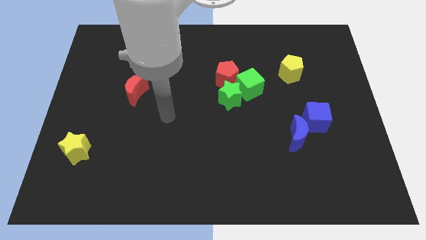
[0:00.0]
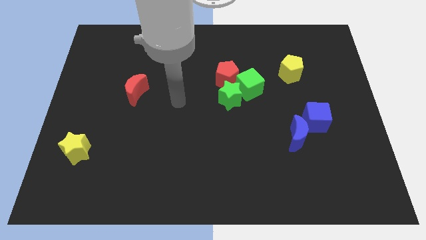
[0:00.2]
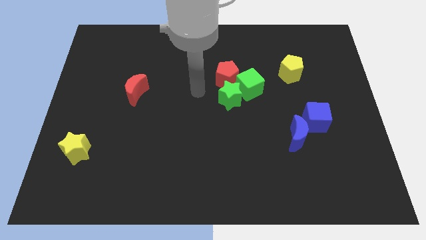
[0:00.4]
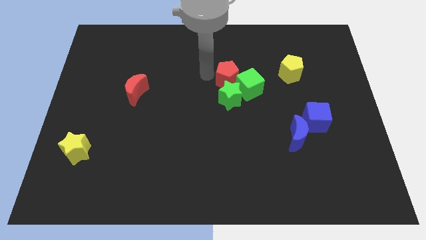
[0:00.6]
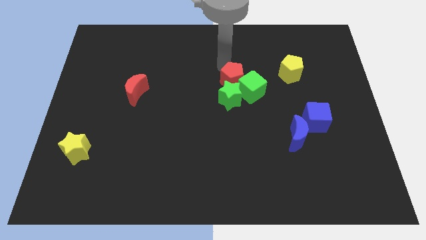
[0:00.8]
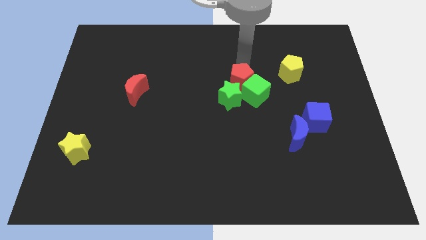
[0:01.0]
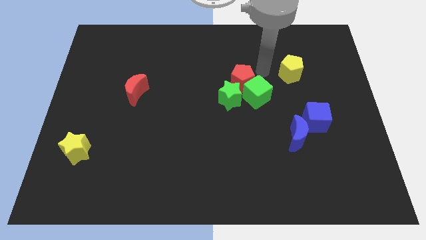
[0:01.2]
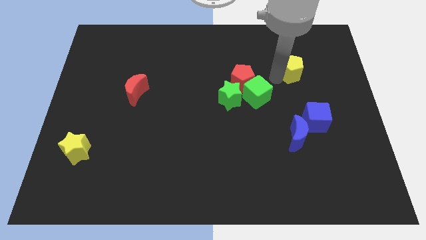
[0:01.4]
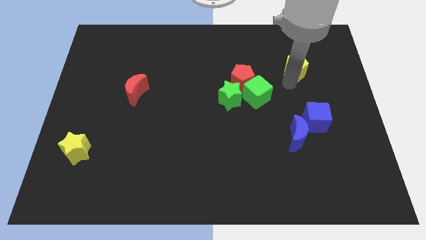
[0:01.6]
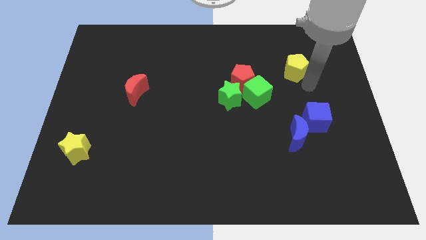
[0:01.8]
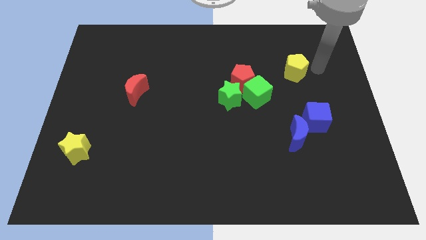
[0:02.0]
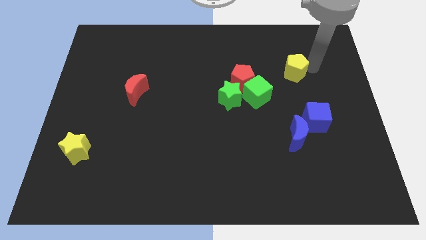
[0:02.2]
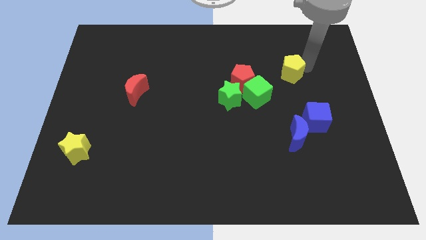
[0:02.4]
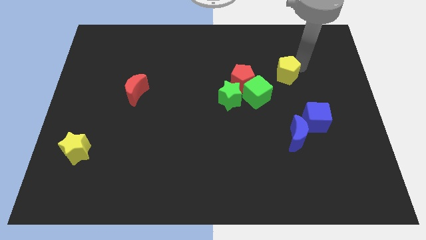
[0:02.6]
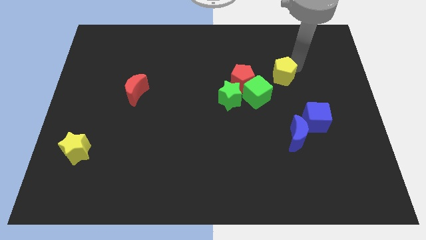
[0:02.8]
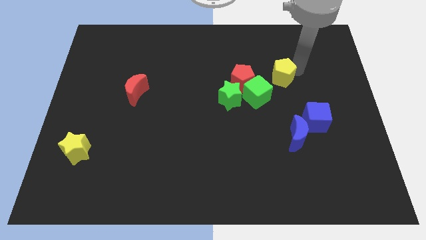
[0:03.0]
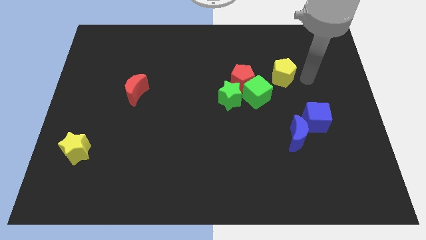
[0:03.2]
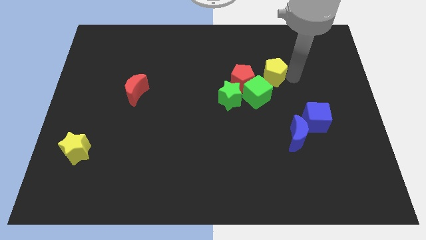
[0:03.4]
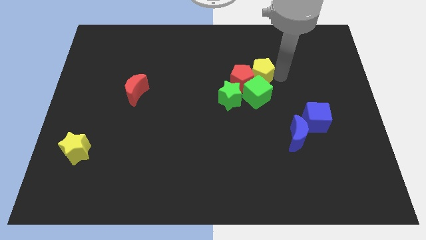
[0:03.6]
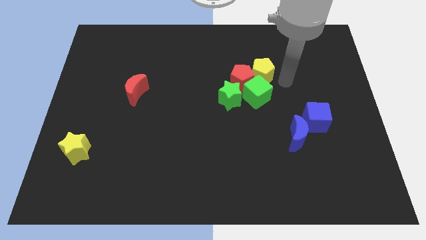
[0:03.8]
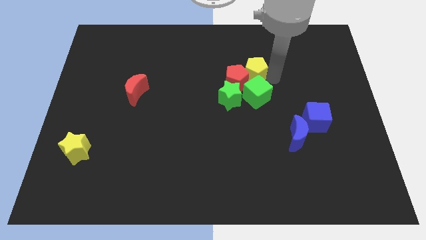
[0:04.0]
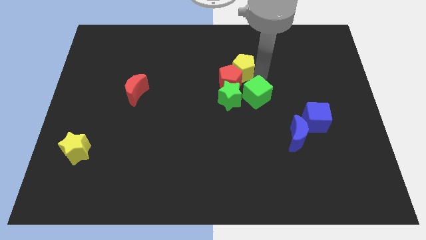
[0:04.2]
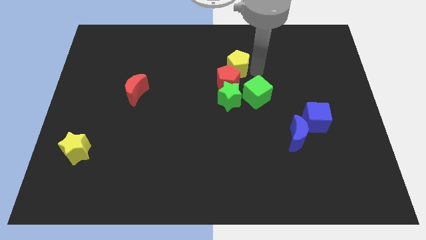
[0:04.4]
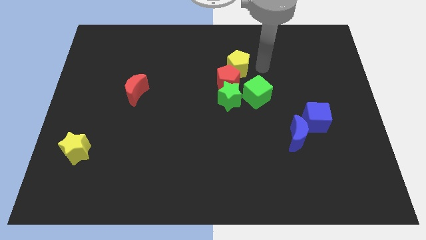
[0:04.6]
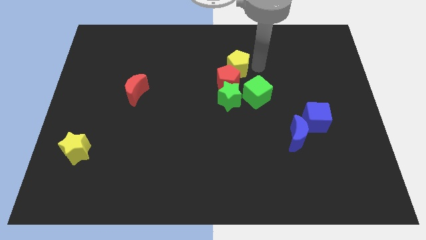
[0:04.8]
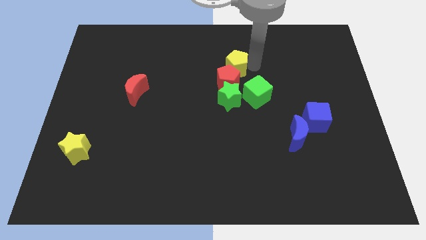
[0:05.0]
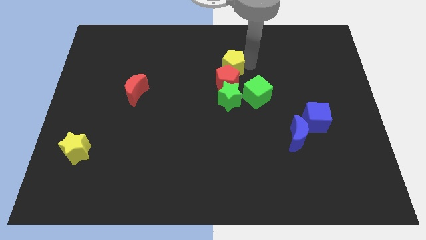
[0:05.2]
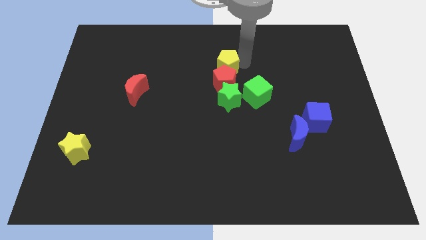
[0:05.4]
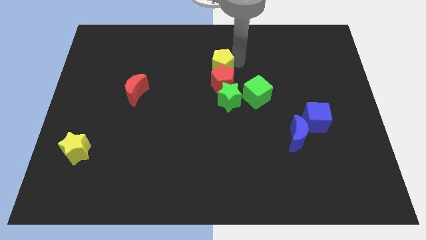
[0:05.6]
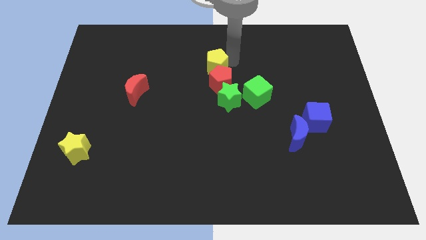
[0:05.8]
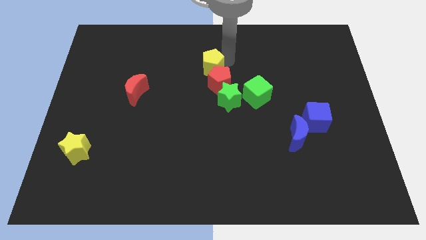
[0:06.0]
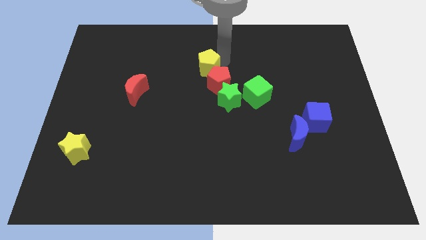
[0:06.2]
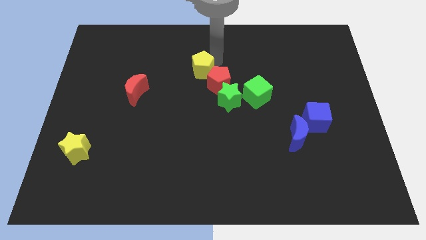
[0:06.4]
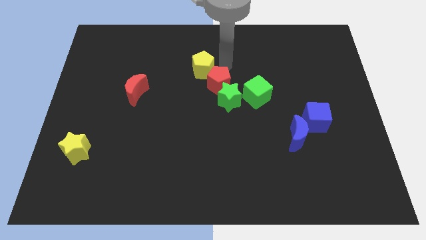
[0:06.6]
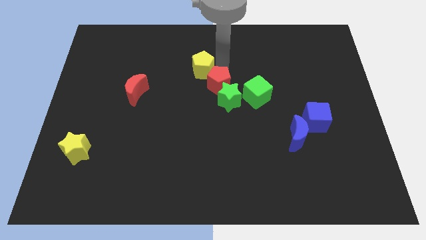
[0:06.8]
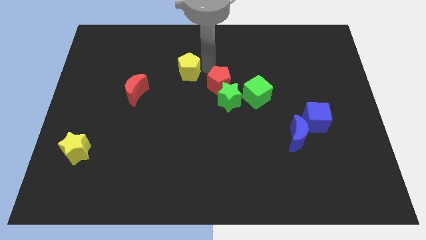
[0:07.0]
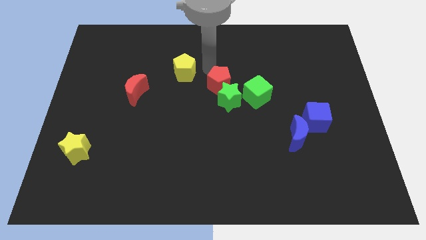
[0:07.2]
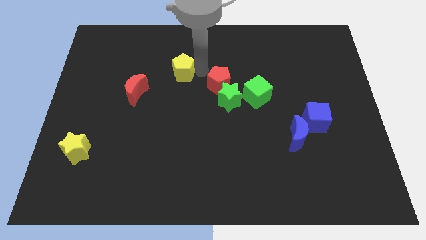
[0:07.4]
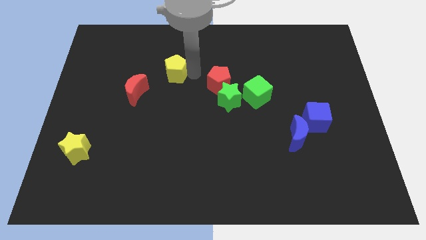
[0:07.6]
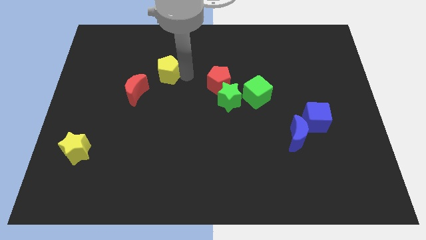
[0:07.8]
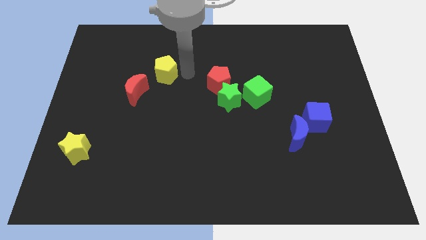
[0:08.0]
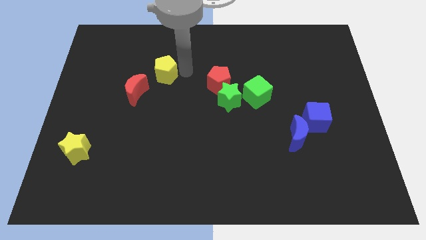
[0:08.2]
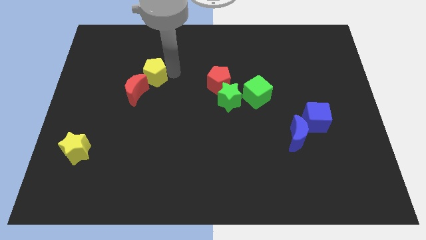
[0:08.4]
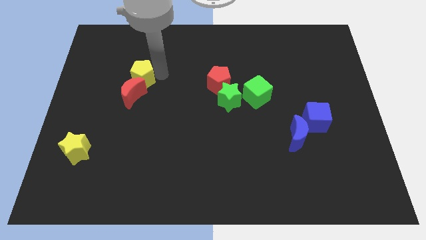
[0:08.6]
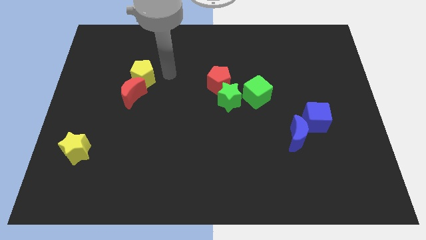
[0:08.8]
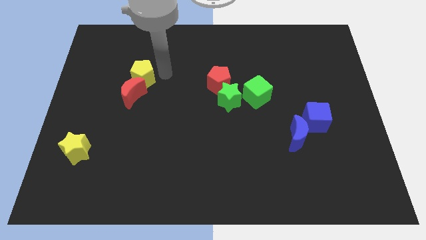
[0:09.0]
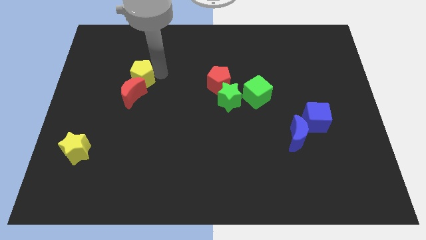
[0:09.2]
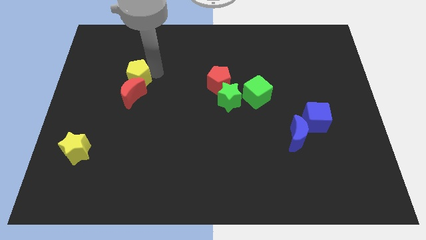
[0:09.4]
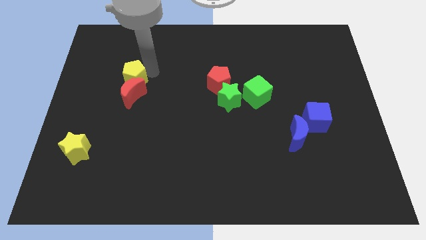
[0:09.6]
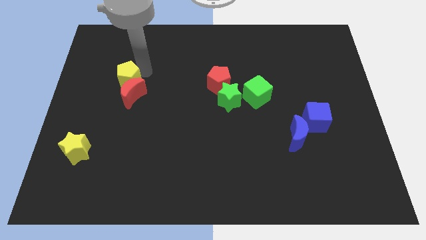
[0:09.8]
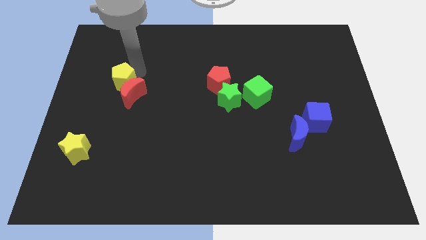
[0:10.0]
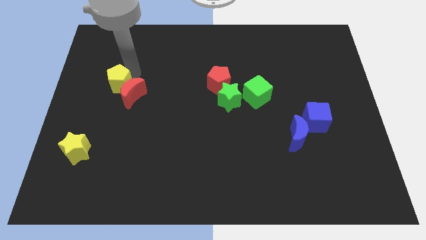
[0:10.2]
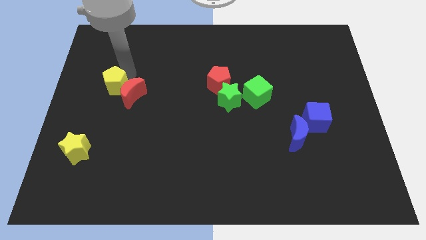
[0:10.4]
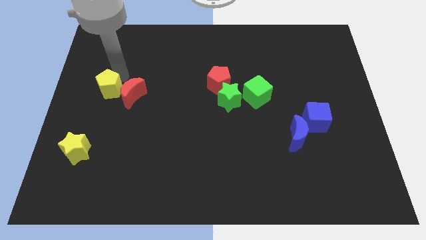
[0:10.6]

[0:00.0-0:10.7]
slide the yellow pentagon to the left side of the board

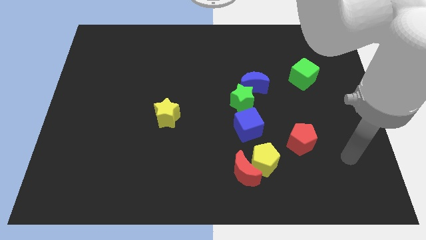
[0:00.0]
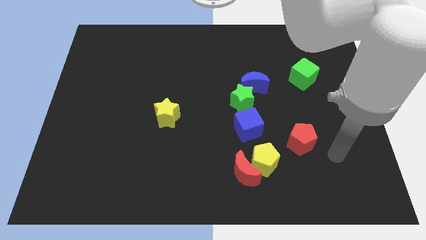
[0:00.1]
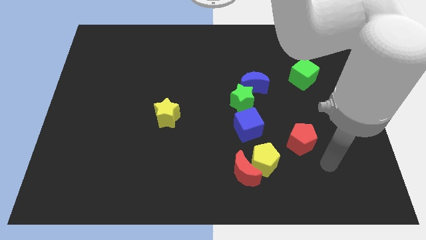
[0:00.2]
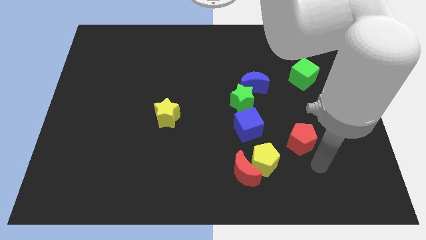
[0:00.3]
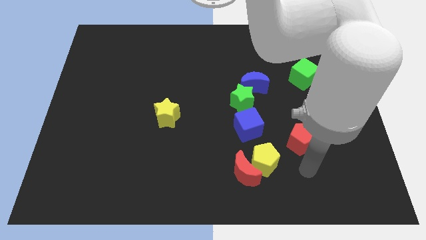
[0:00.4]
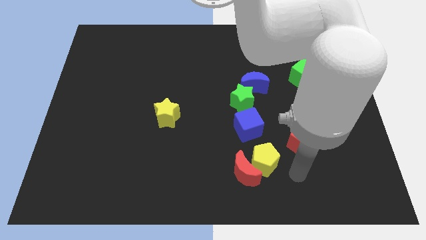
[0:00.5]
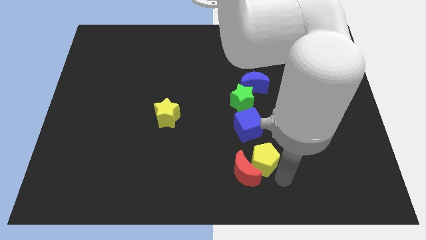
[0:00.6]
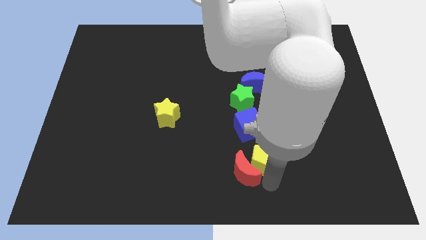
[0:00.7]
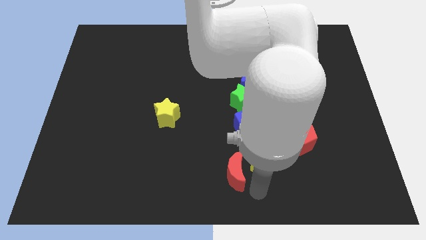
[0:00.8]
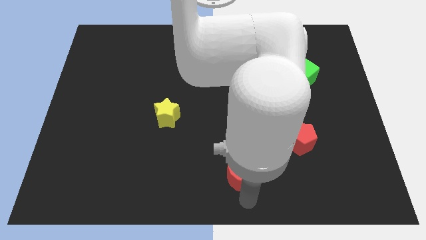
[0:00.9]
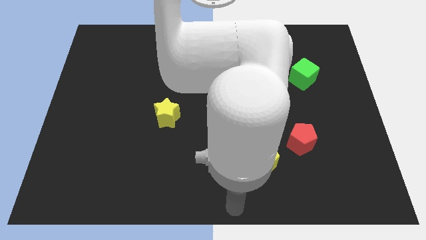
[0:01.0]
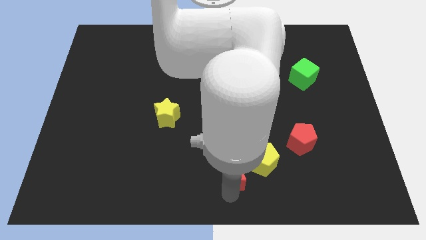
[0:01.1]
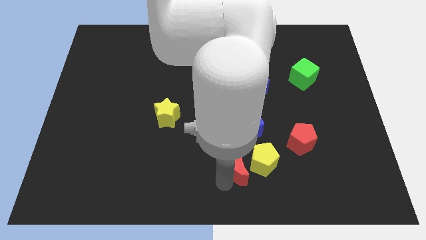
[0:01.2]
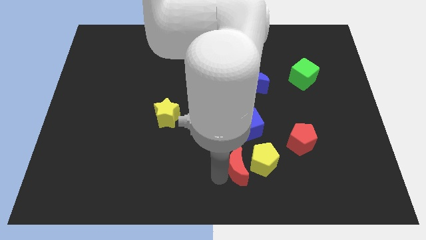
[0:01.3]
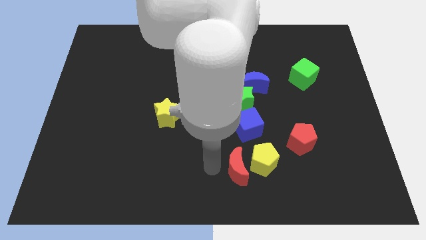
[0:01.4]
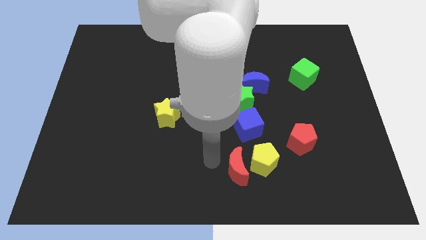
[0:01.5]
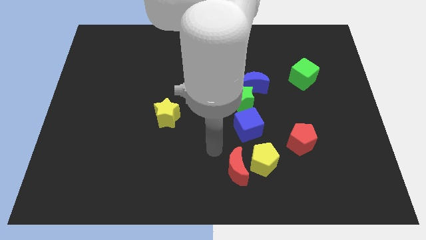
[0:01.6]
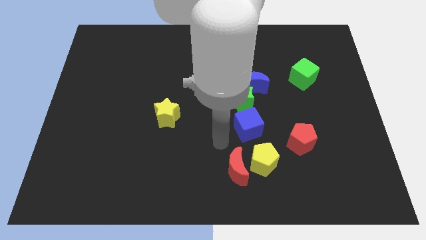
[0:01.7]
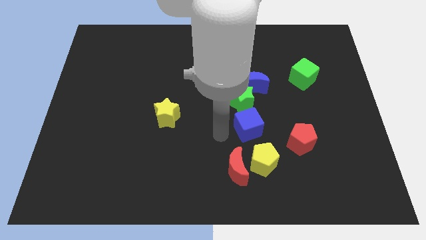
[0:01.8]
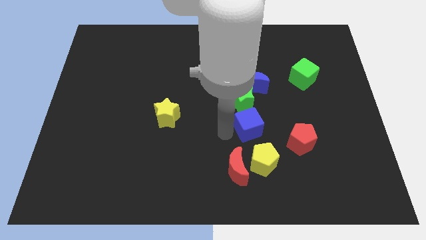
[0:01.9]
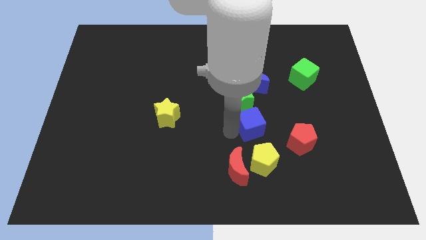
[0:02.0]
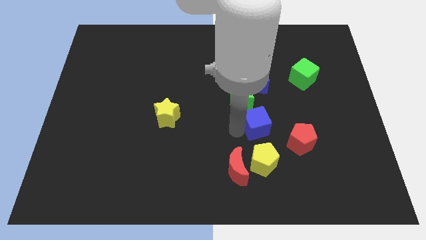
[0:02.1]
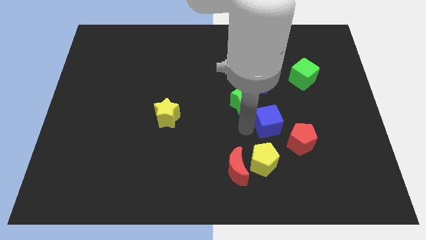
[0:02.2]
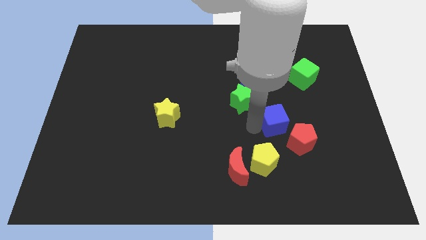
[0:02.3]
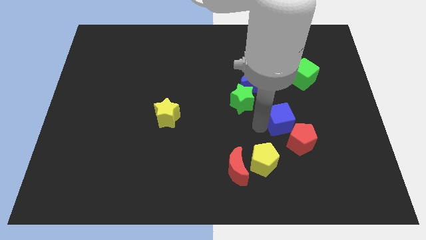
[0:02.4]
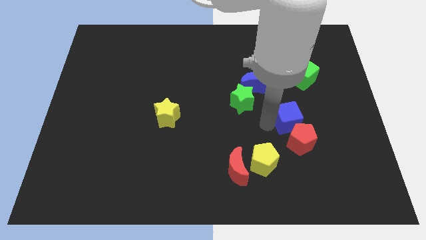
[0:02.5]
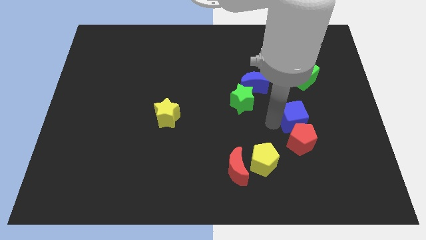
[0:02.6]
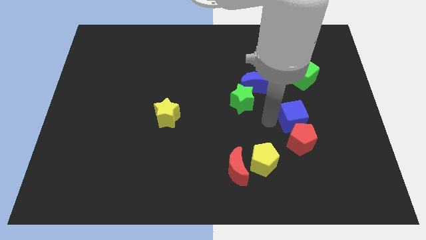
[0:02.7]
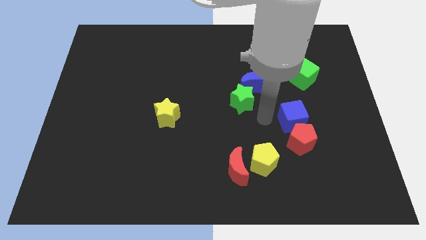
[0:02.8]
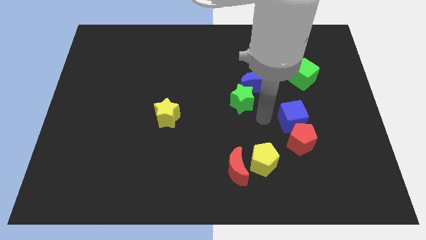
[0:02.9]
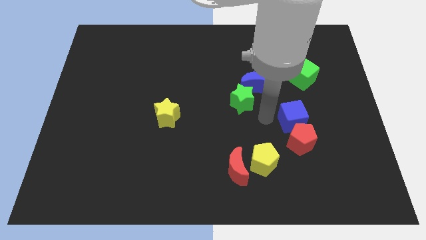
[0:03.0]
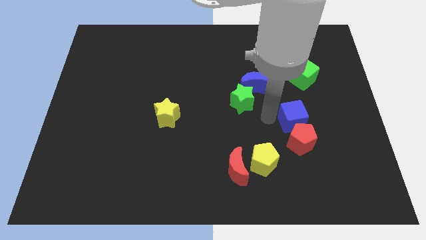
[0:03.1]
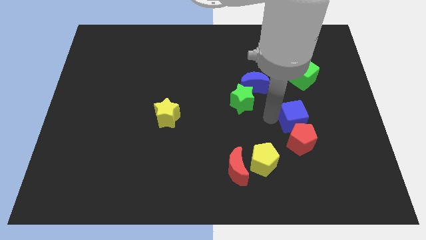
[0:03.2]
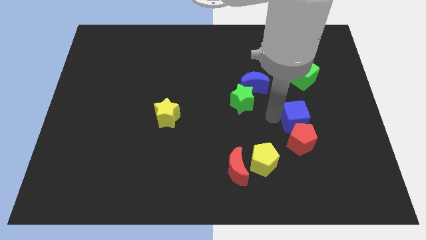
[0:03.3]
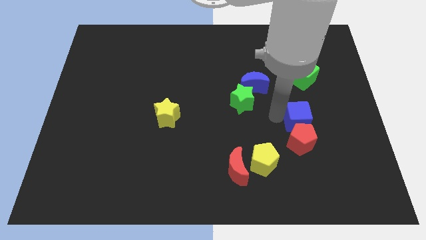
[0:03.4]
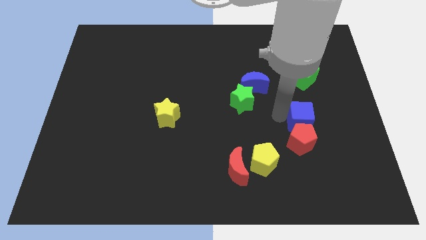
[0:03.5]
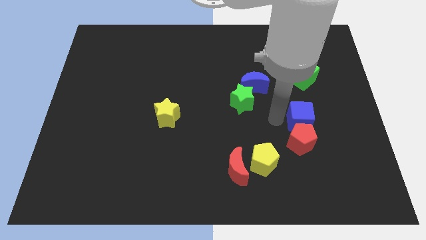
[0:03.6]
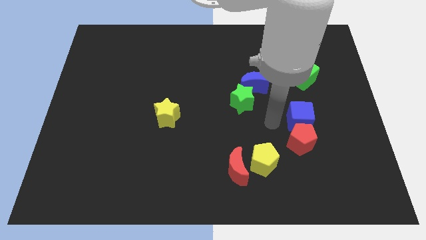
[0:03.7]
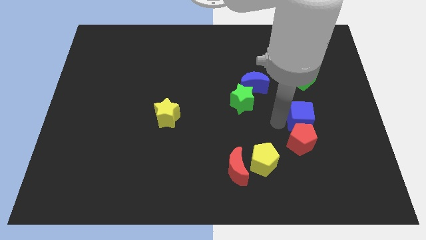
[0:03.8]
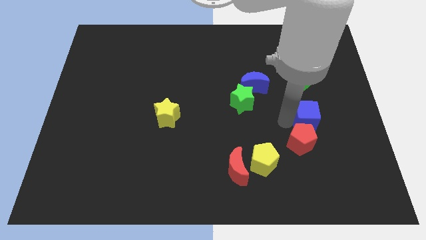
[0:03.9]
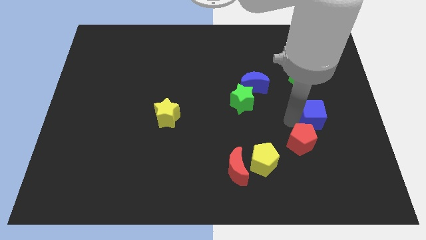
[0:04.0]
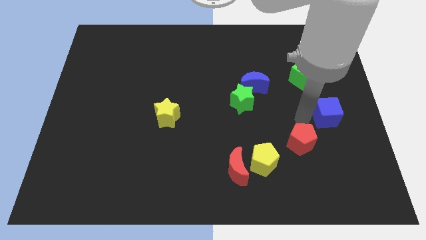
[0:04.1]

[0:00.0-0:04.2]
put the blue cube to the right side of the board
